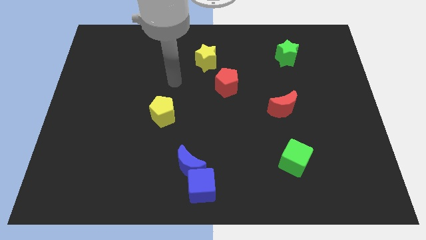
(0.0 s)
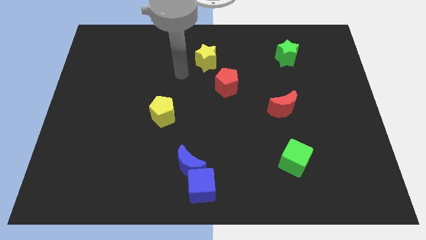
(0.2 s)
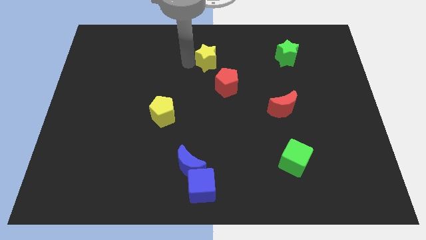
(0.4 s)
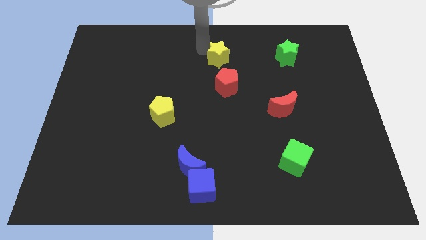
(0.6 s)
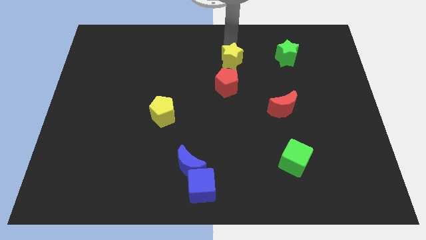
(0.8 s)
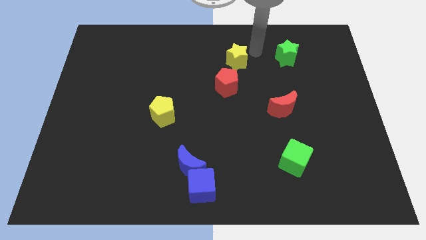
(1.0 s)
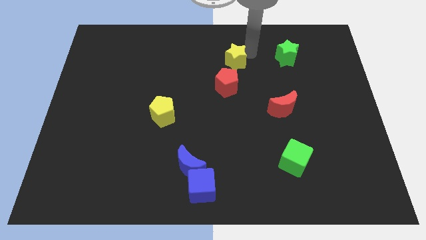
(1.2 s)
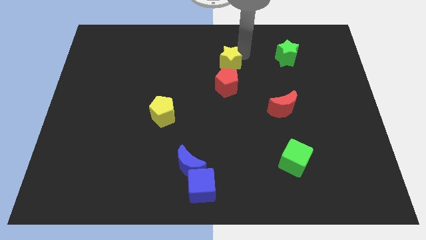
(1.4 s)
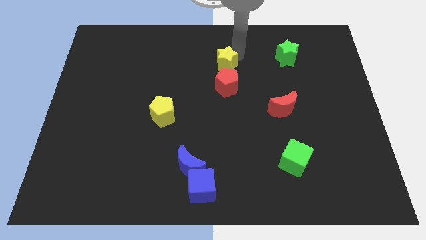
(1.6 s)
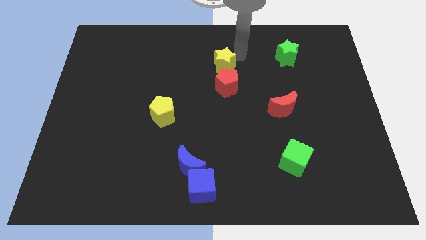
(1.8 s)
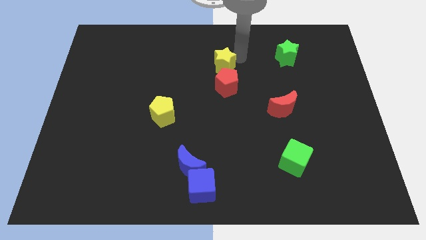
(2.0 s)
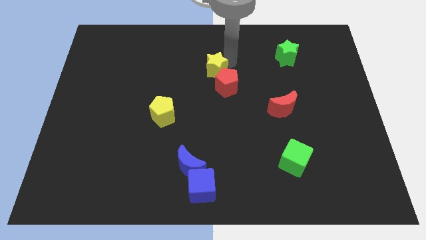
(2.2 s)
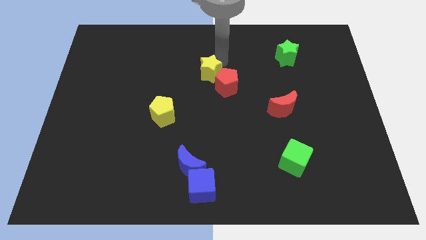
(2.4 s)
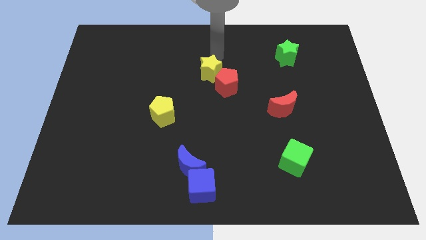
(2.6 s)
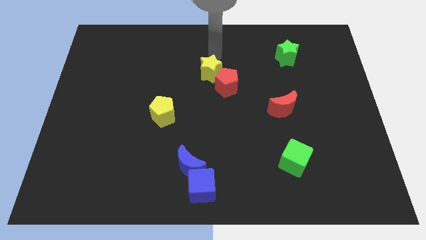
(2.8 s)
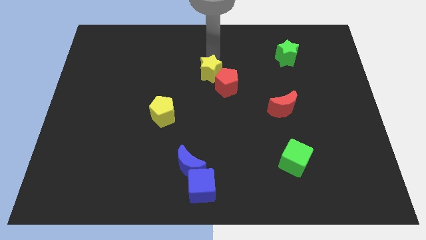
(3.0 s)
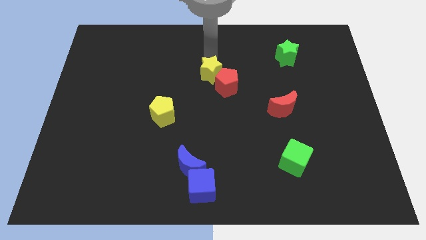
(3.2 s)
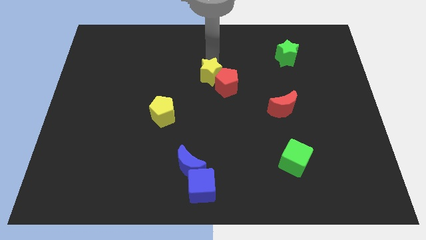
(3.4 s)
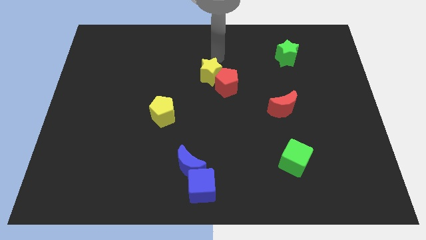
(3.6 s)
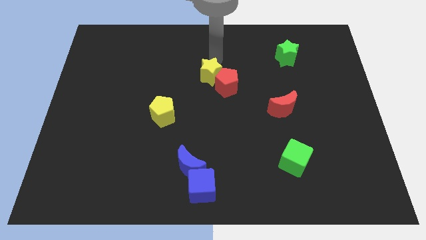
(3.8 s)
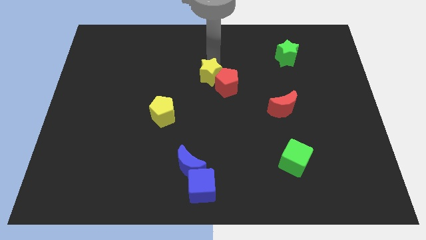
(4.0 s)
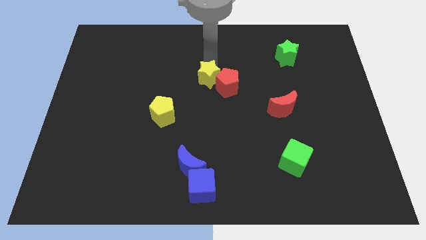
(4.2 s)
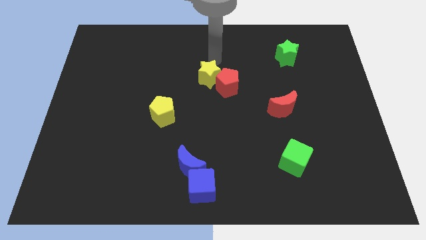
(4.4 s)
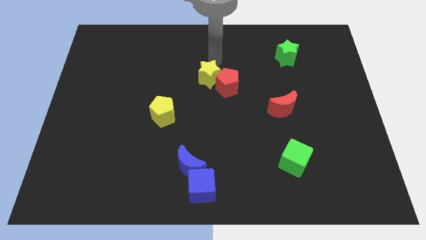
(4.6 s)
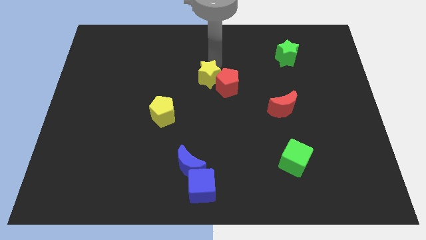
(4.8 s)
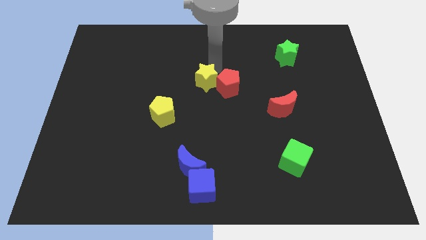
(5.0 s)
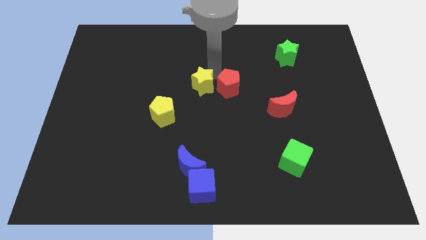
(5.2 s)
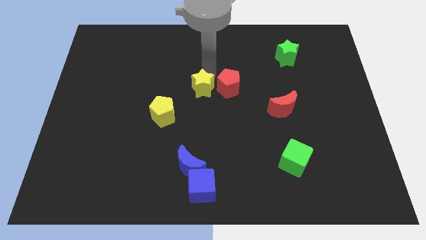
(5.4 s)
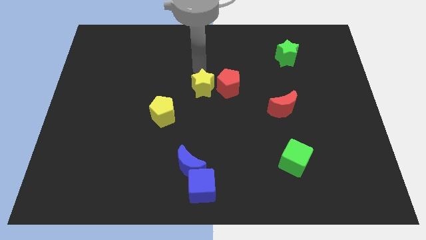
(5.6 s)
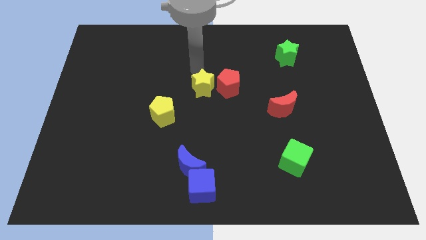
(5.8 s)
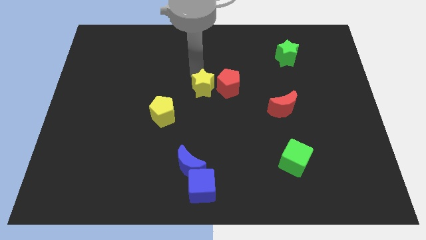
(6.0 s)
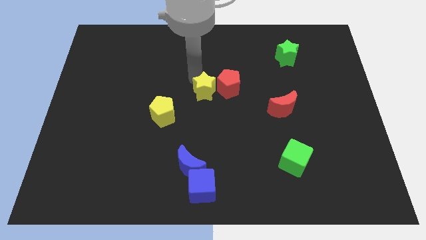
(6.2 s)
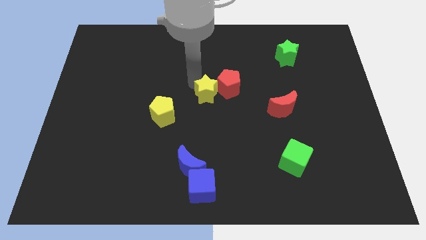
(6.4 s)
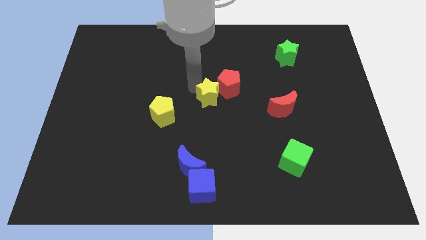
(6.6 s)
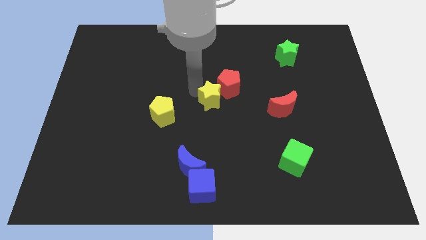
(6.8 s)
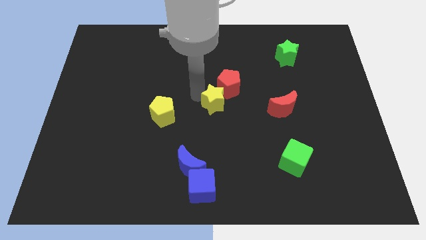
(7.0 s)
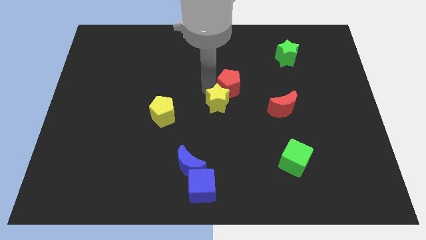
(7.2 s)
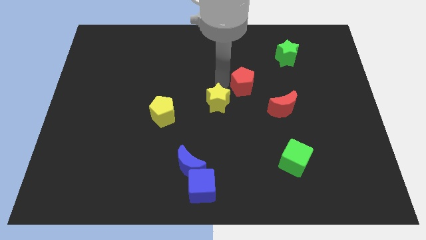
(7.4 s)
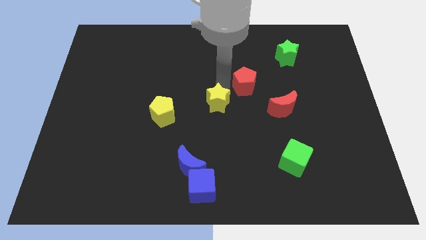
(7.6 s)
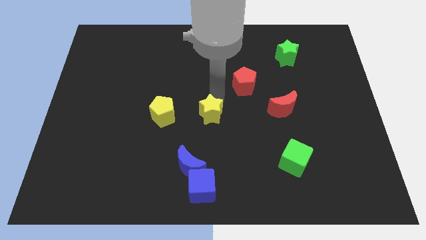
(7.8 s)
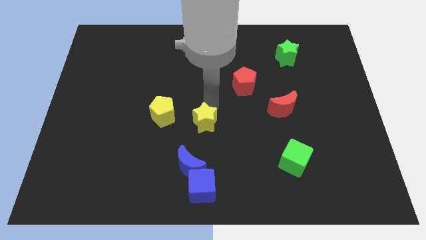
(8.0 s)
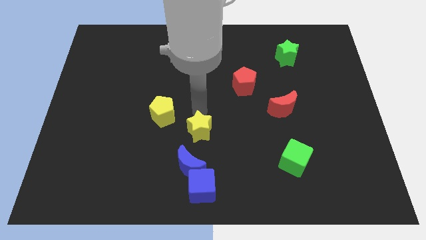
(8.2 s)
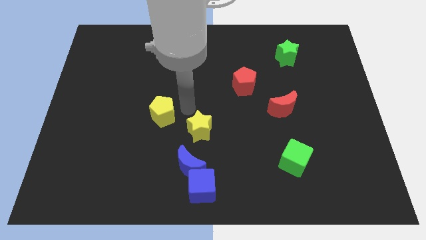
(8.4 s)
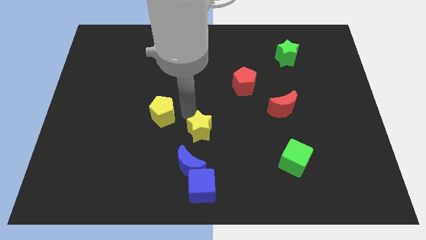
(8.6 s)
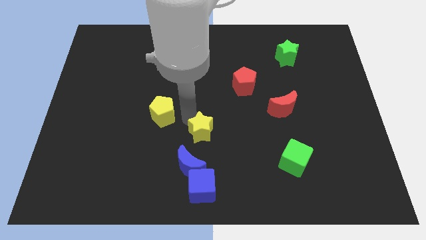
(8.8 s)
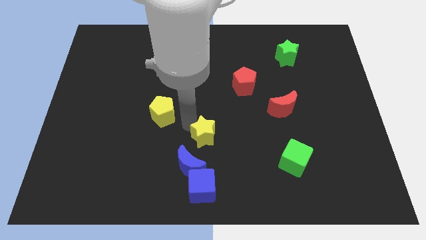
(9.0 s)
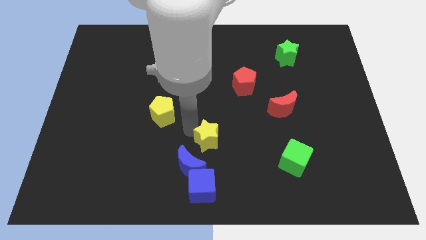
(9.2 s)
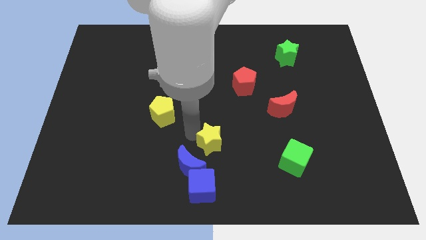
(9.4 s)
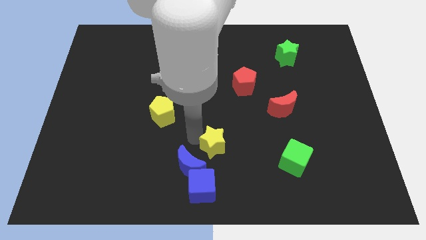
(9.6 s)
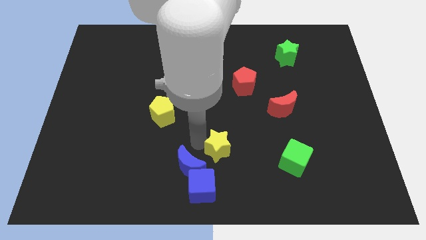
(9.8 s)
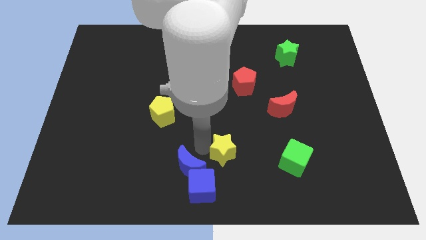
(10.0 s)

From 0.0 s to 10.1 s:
put the yellow star to the bottom
